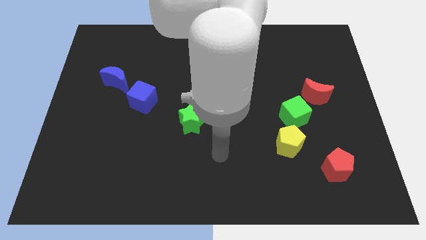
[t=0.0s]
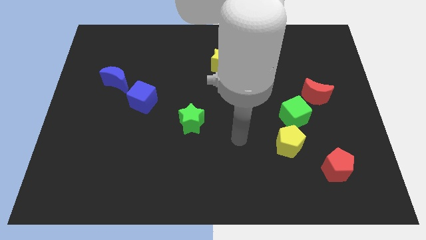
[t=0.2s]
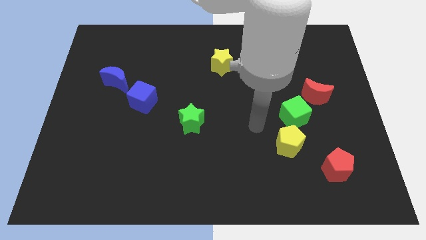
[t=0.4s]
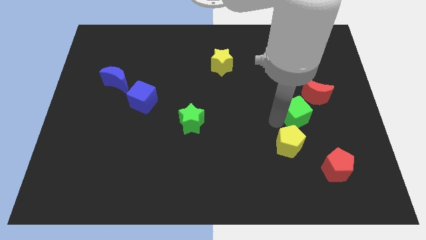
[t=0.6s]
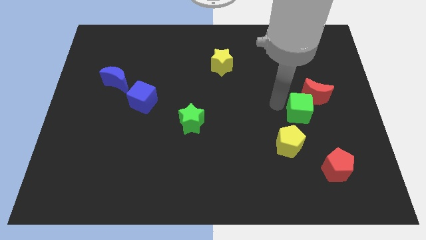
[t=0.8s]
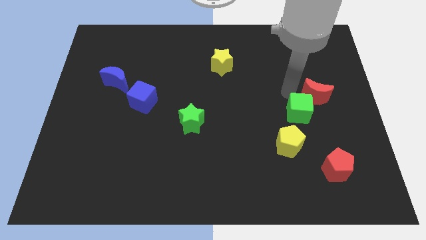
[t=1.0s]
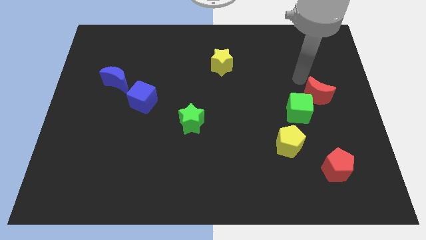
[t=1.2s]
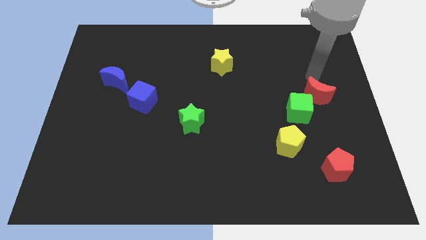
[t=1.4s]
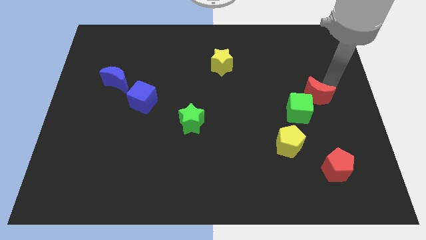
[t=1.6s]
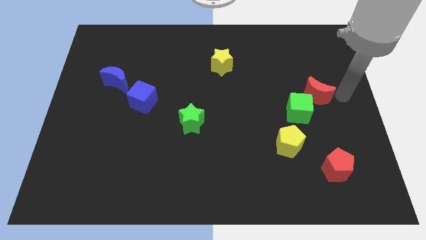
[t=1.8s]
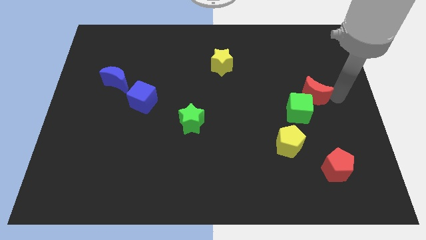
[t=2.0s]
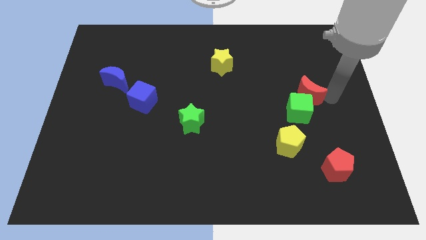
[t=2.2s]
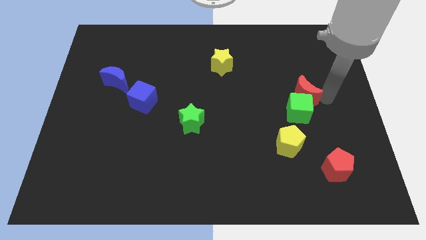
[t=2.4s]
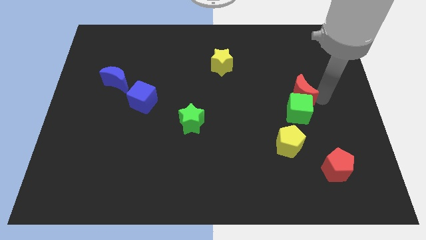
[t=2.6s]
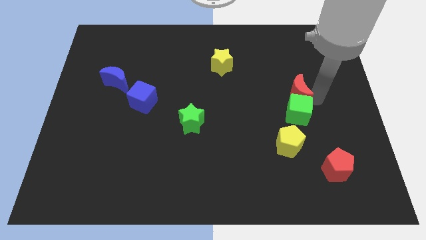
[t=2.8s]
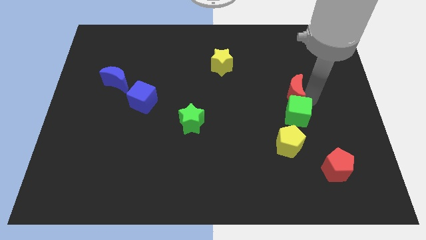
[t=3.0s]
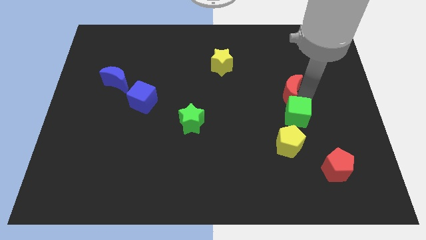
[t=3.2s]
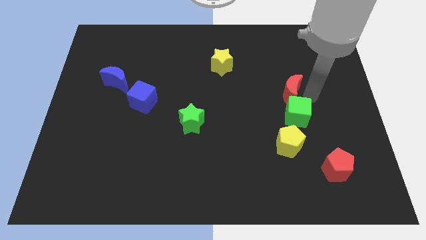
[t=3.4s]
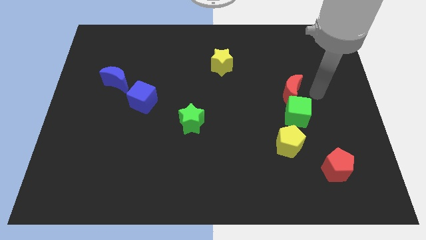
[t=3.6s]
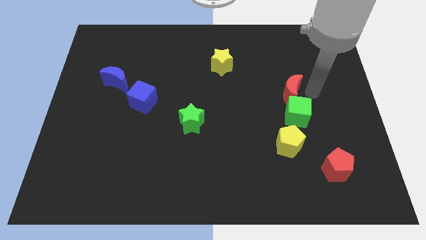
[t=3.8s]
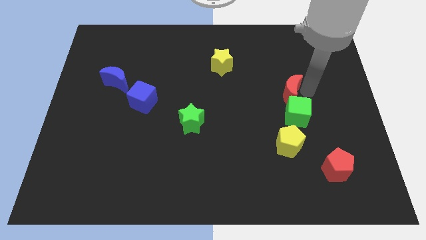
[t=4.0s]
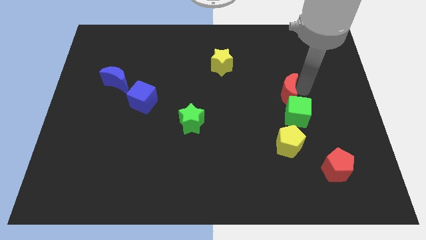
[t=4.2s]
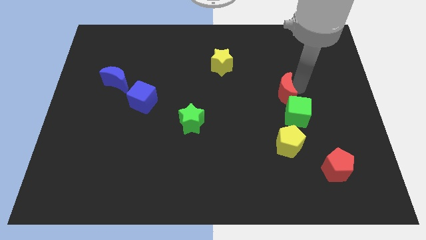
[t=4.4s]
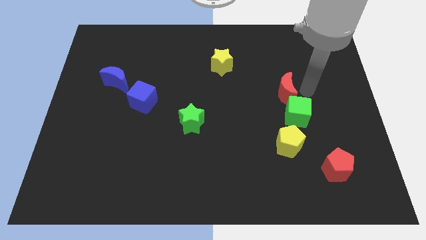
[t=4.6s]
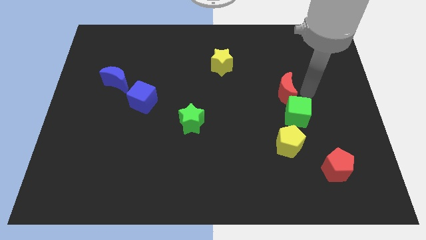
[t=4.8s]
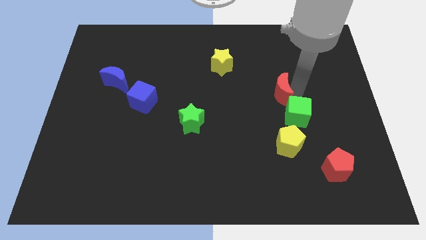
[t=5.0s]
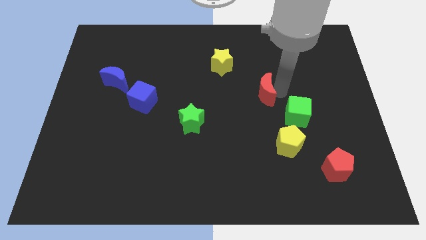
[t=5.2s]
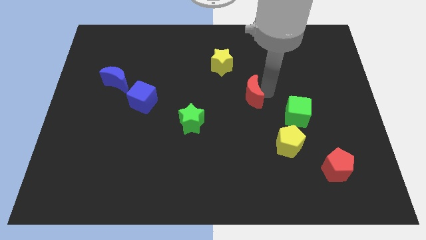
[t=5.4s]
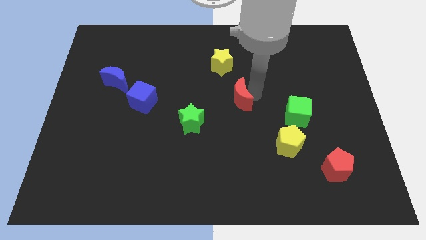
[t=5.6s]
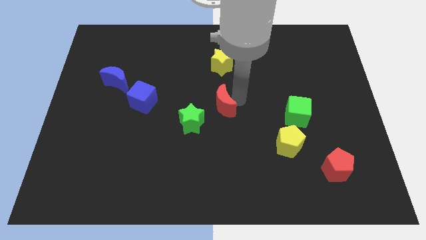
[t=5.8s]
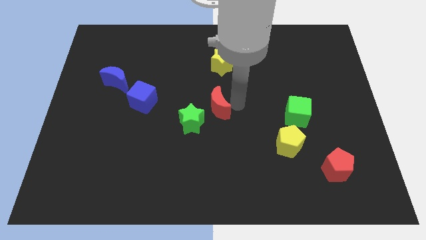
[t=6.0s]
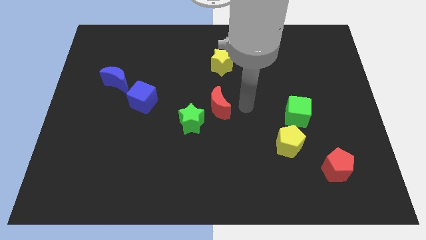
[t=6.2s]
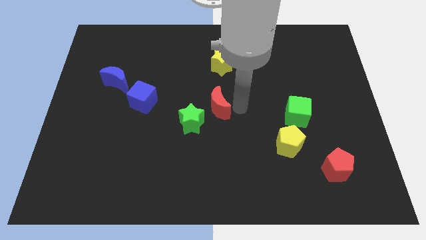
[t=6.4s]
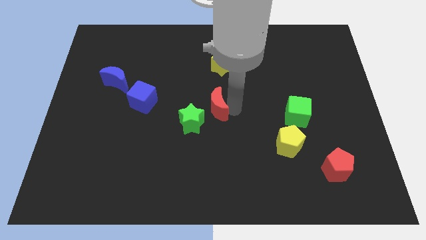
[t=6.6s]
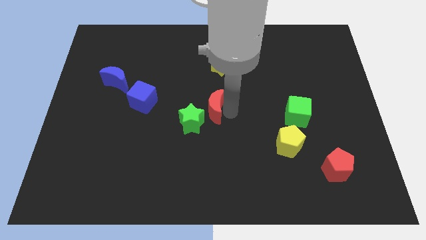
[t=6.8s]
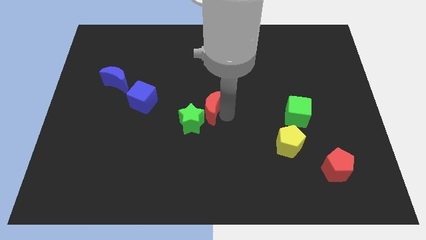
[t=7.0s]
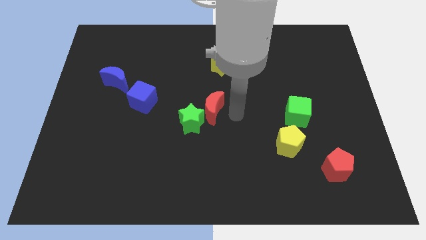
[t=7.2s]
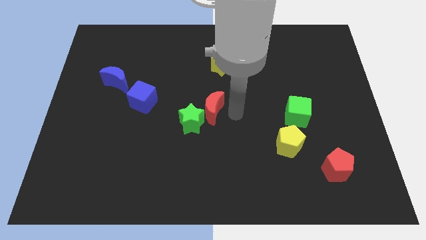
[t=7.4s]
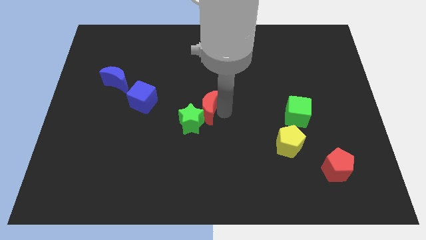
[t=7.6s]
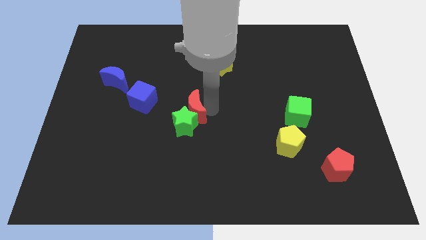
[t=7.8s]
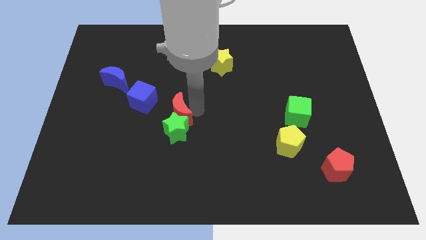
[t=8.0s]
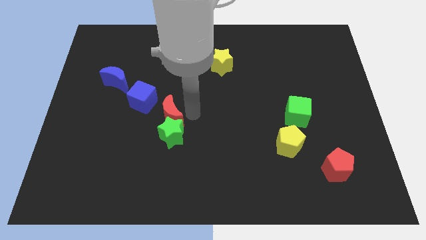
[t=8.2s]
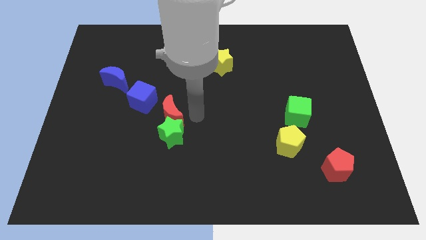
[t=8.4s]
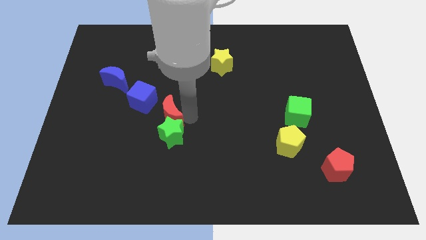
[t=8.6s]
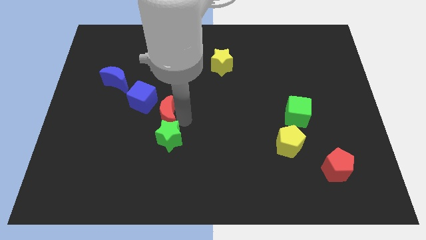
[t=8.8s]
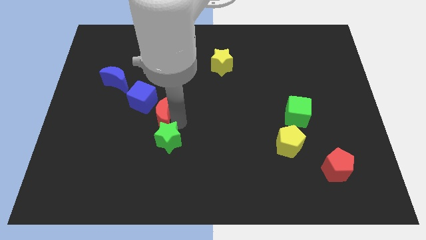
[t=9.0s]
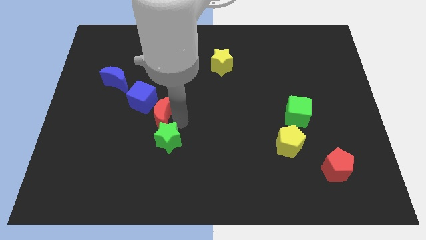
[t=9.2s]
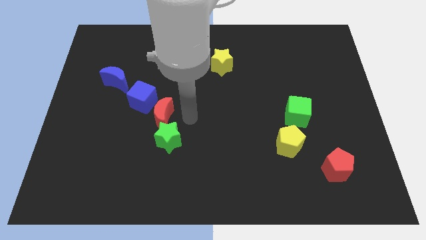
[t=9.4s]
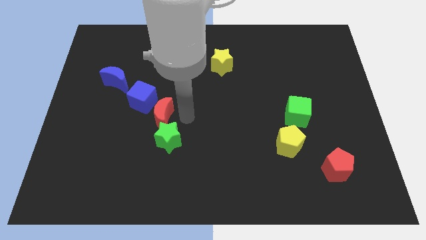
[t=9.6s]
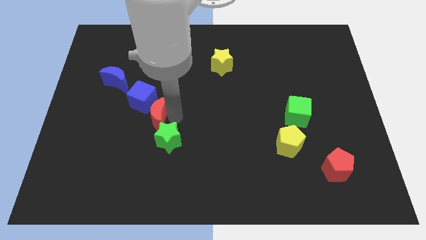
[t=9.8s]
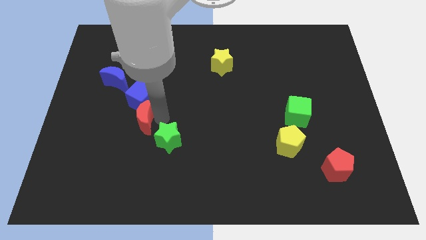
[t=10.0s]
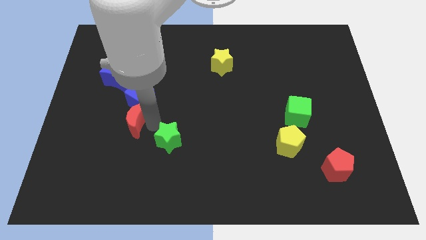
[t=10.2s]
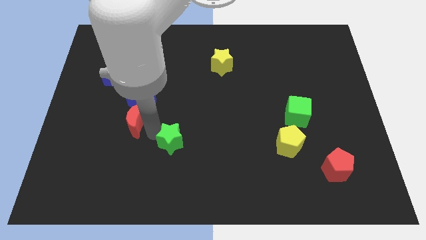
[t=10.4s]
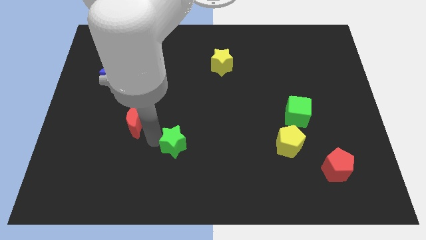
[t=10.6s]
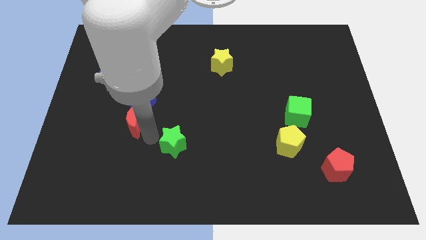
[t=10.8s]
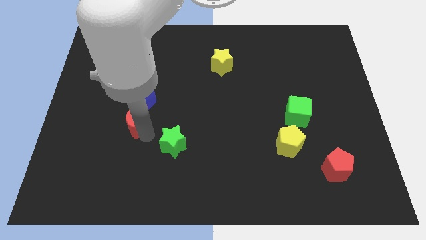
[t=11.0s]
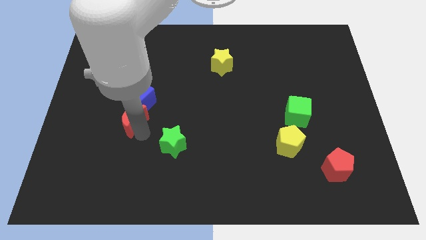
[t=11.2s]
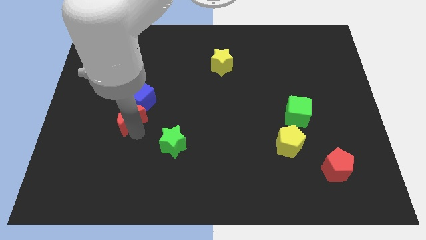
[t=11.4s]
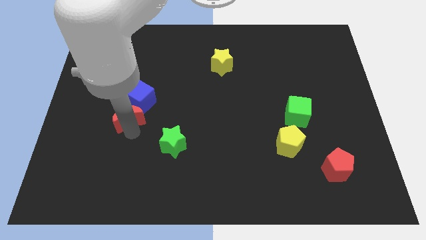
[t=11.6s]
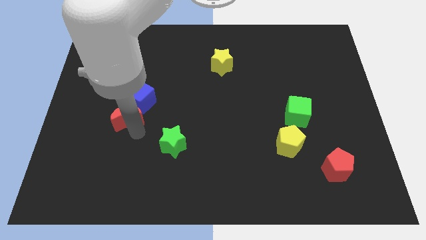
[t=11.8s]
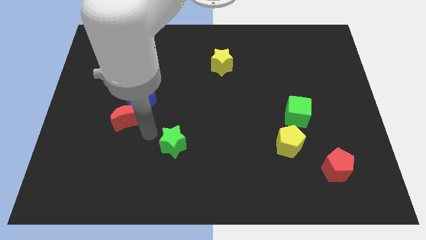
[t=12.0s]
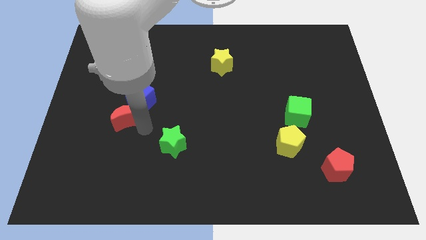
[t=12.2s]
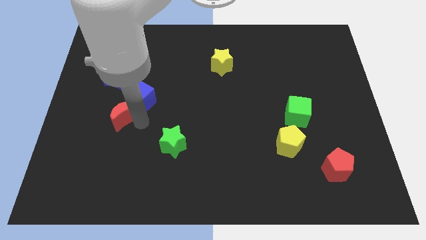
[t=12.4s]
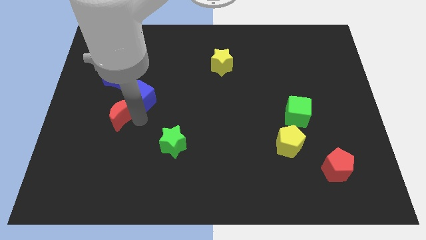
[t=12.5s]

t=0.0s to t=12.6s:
move the red moon just left of the blue cube
